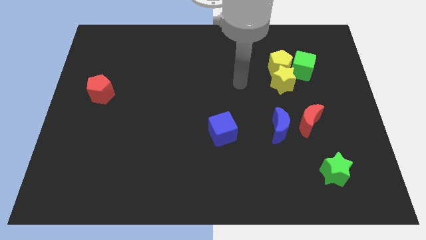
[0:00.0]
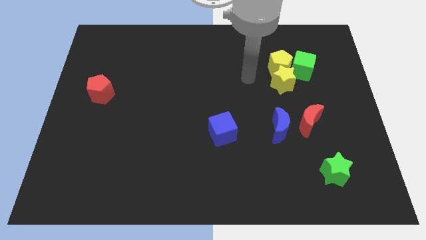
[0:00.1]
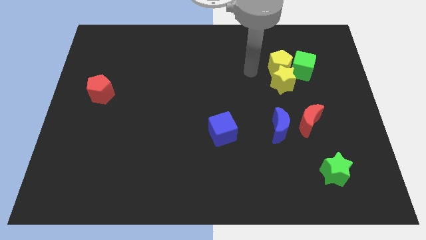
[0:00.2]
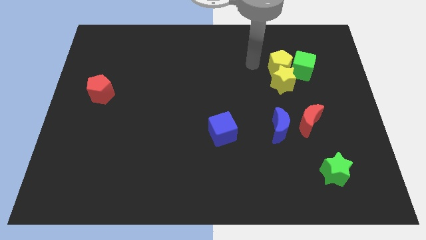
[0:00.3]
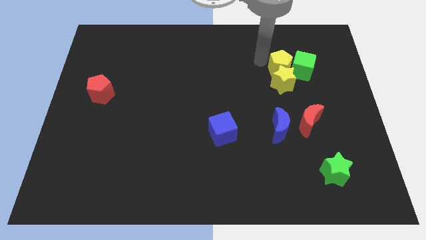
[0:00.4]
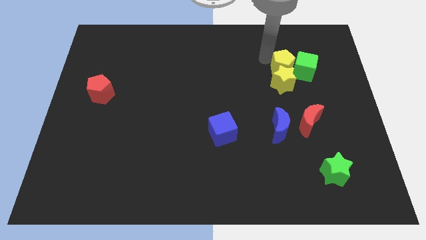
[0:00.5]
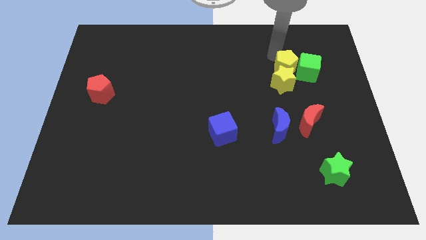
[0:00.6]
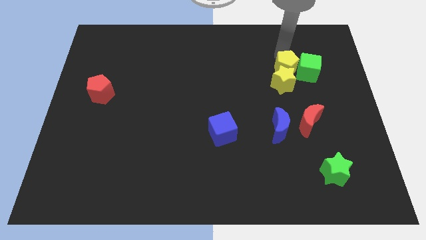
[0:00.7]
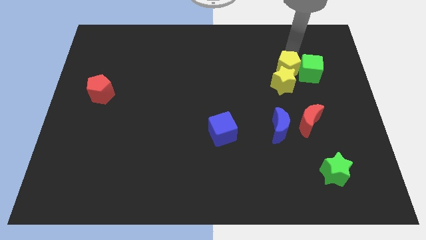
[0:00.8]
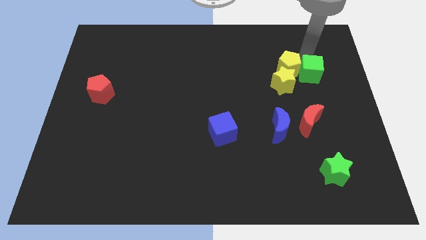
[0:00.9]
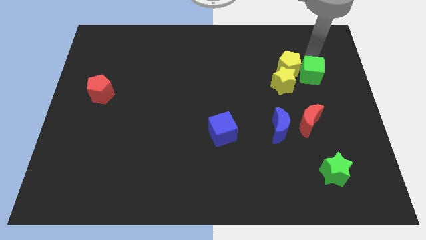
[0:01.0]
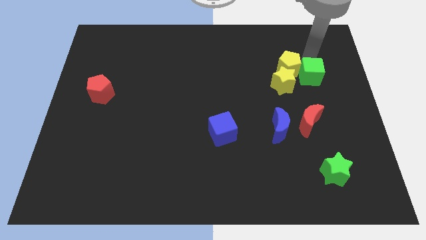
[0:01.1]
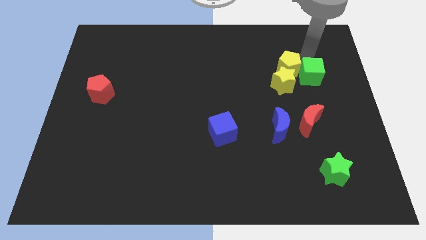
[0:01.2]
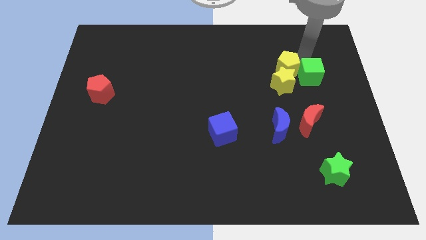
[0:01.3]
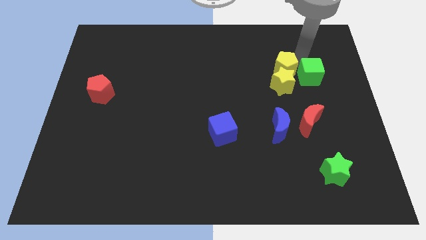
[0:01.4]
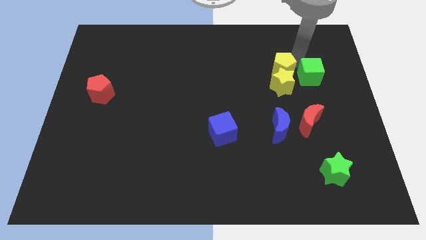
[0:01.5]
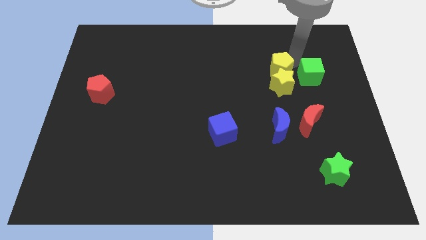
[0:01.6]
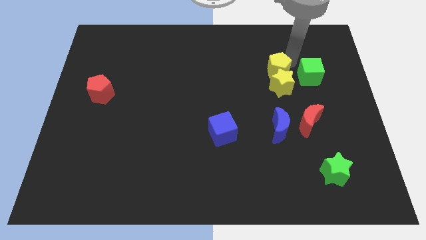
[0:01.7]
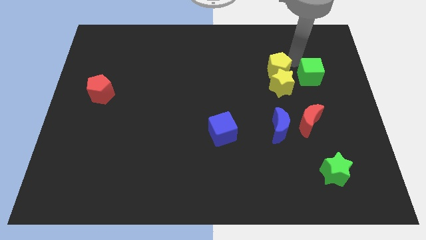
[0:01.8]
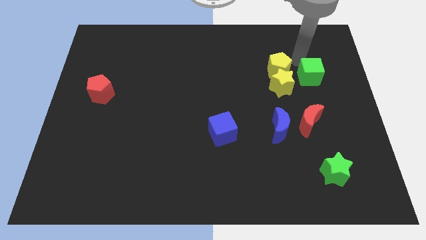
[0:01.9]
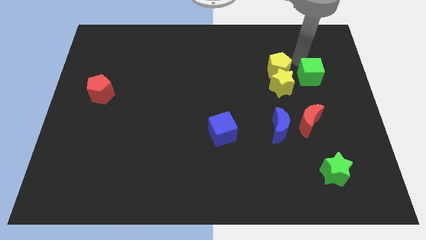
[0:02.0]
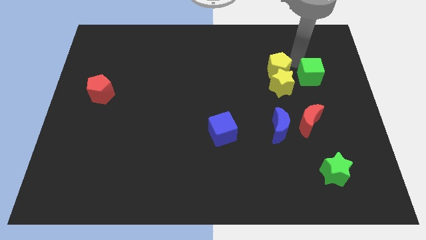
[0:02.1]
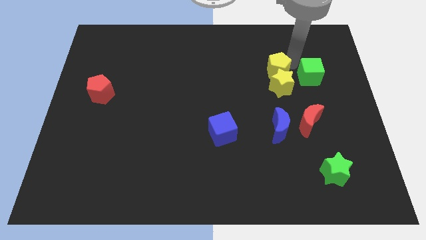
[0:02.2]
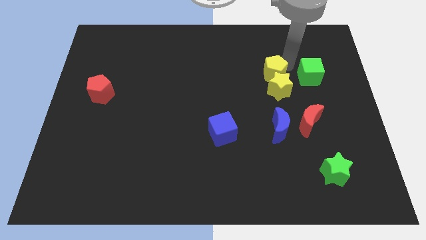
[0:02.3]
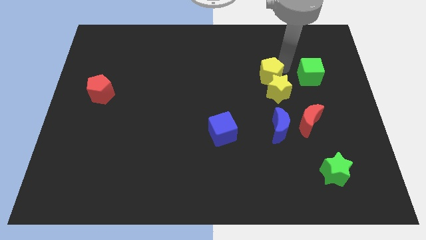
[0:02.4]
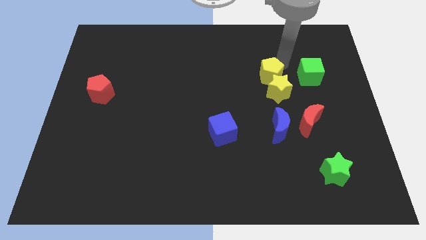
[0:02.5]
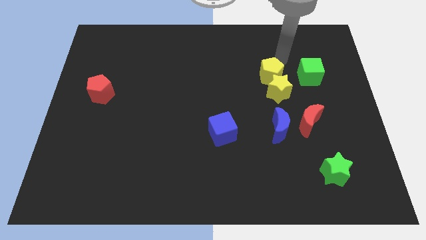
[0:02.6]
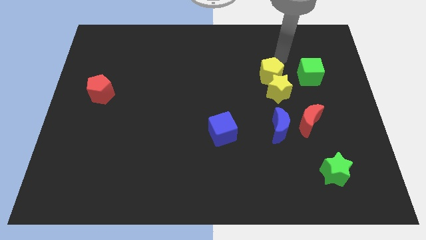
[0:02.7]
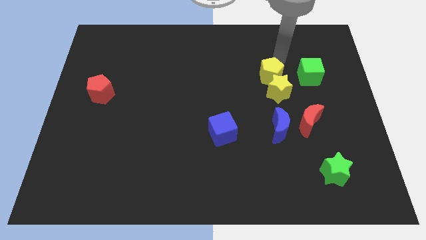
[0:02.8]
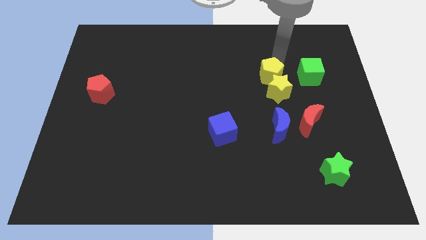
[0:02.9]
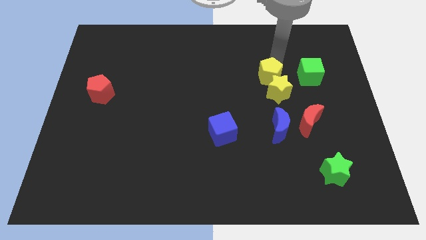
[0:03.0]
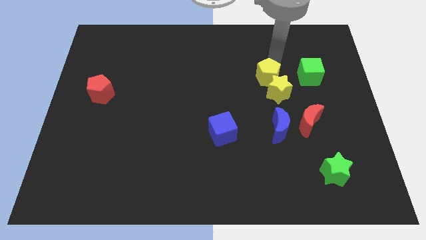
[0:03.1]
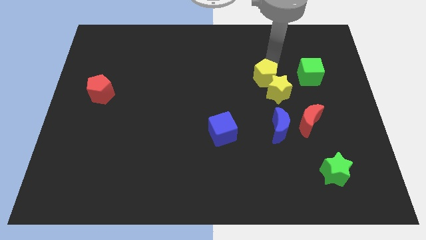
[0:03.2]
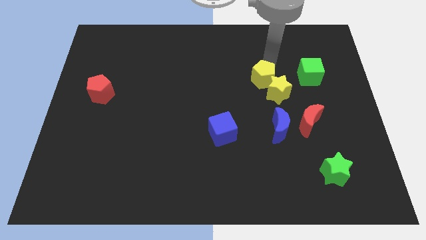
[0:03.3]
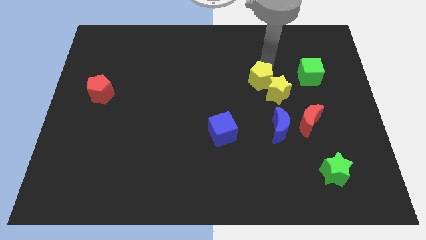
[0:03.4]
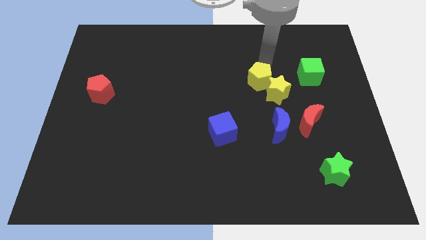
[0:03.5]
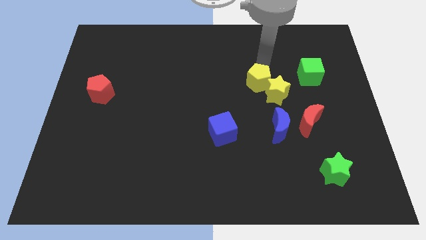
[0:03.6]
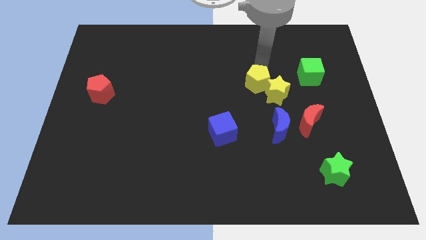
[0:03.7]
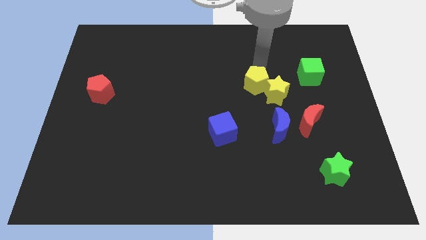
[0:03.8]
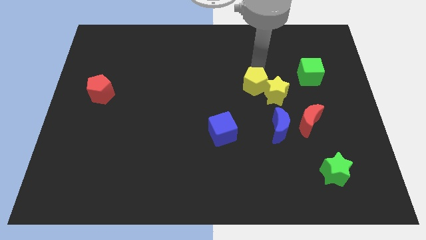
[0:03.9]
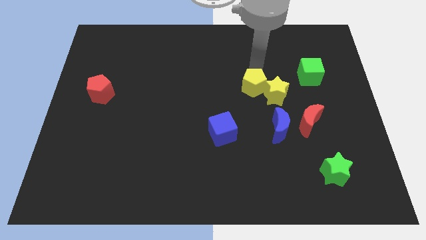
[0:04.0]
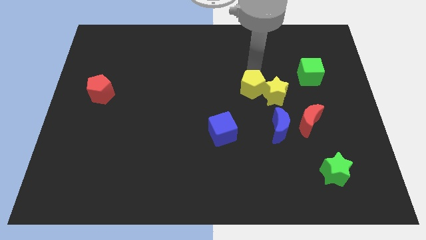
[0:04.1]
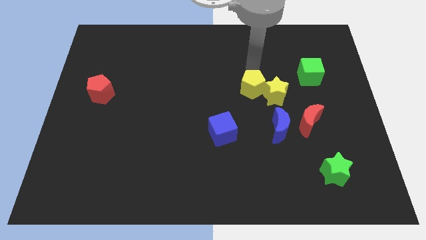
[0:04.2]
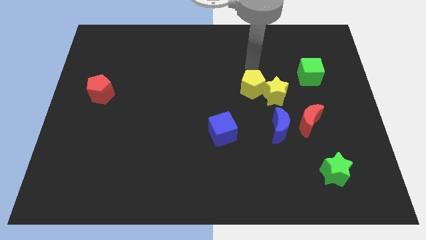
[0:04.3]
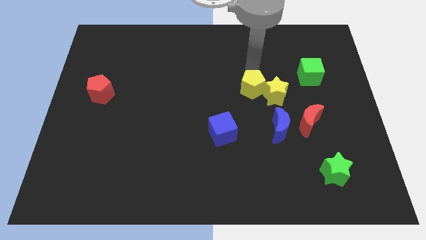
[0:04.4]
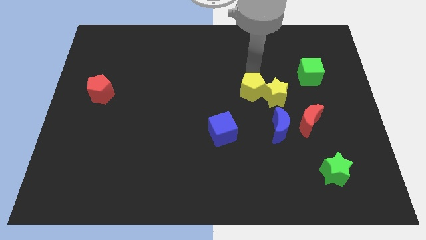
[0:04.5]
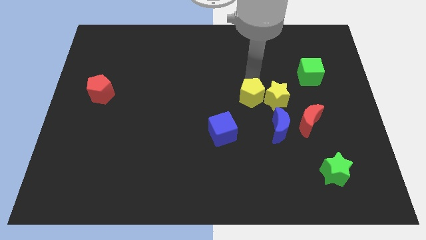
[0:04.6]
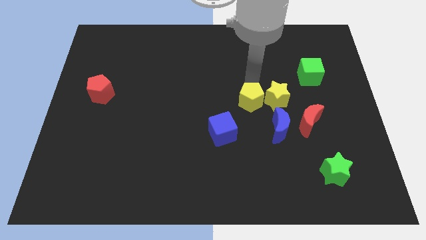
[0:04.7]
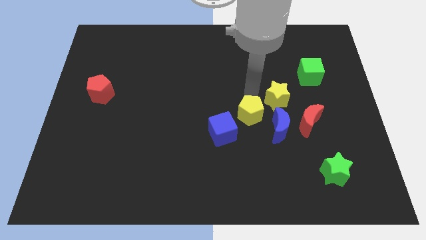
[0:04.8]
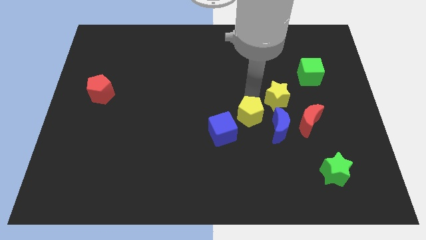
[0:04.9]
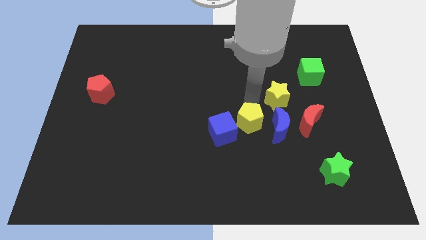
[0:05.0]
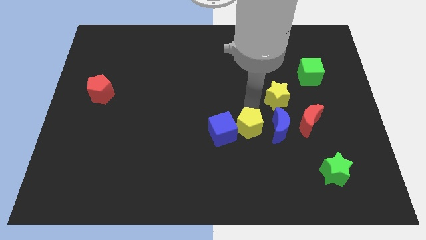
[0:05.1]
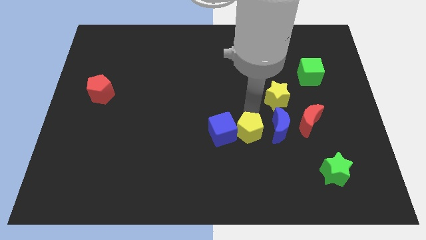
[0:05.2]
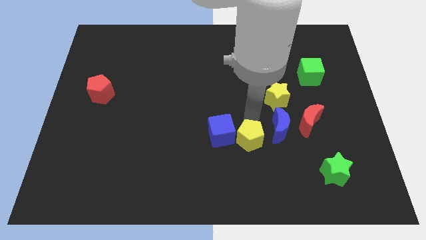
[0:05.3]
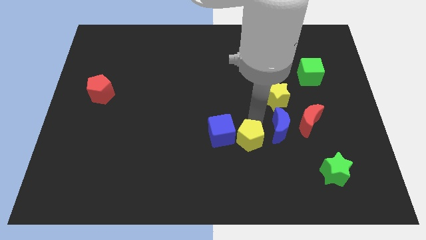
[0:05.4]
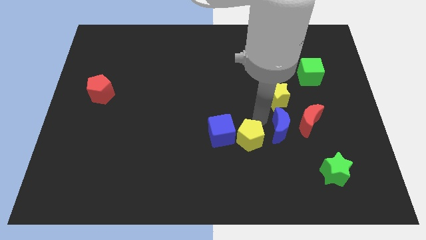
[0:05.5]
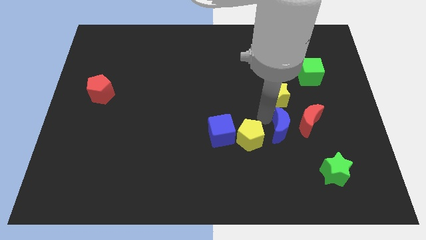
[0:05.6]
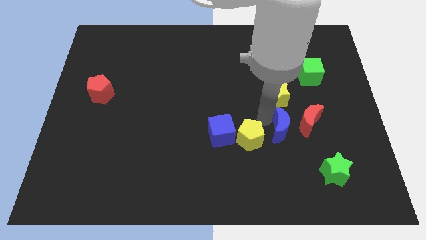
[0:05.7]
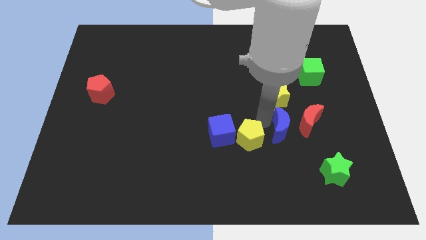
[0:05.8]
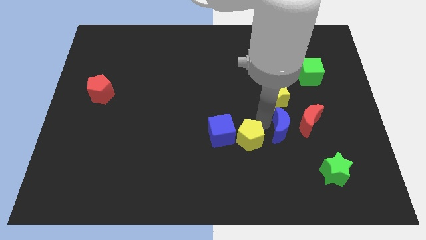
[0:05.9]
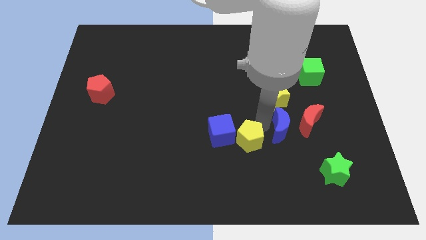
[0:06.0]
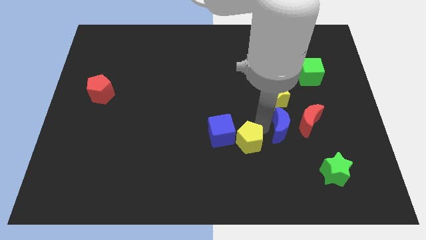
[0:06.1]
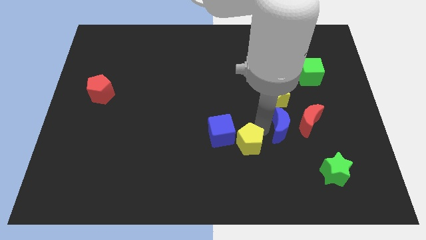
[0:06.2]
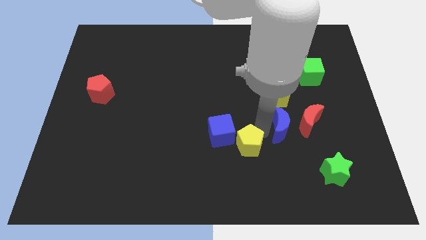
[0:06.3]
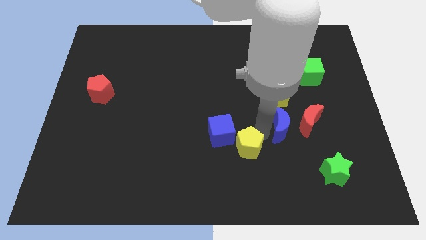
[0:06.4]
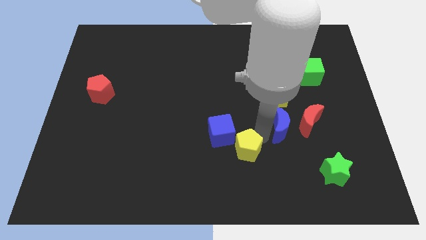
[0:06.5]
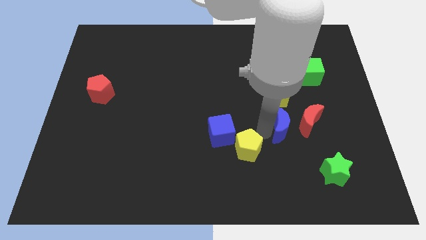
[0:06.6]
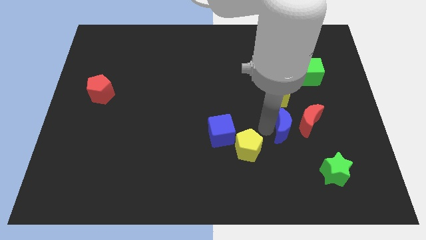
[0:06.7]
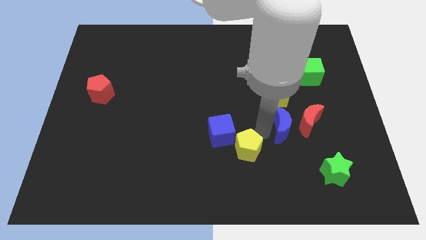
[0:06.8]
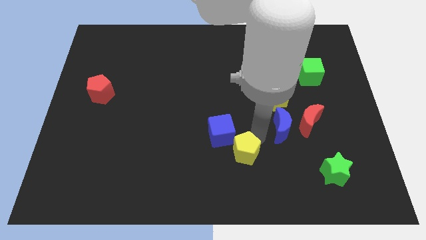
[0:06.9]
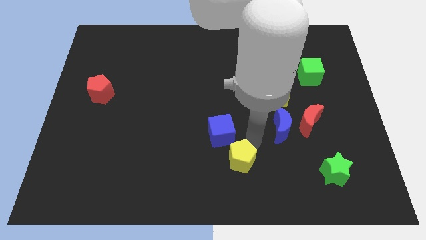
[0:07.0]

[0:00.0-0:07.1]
slide the yellow pentagon to the bottom
